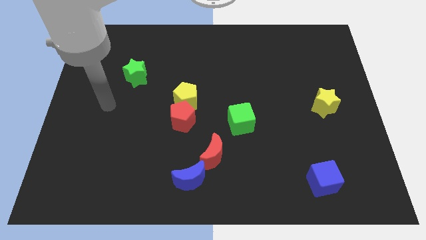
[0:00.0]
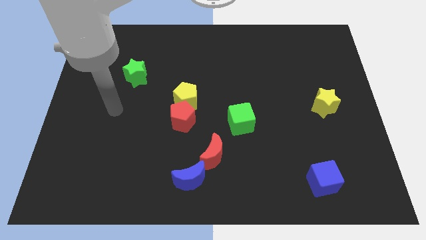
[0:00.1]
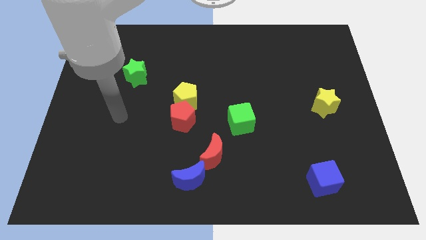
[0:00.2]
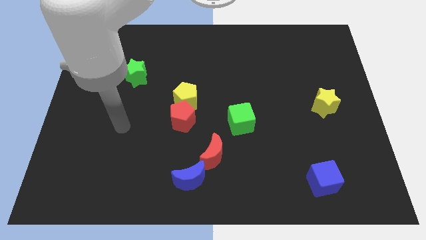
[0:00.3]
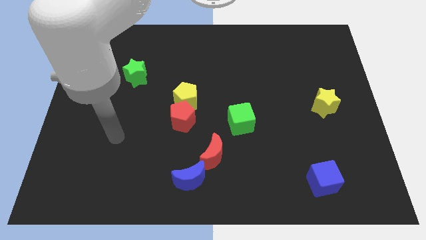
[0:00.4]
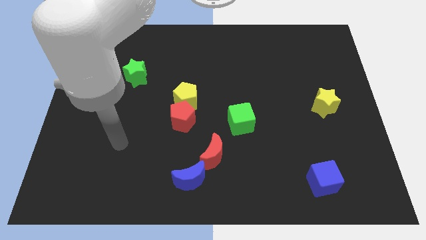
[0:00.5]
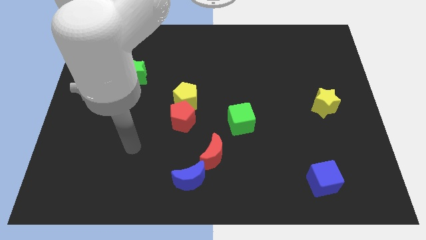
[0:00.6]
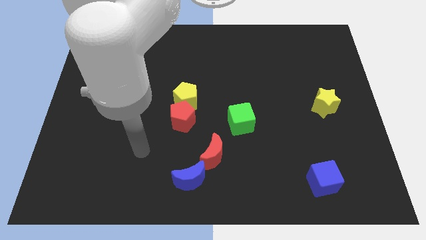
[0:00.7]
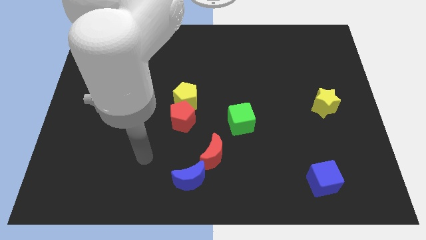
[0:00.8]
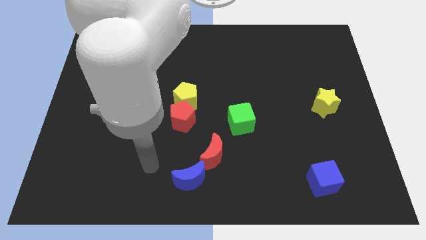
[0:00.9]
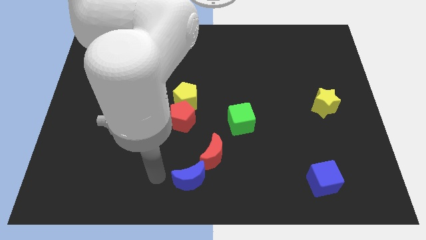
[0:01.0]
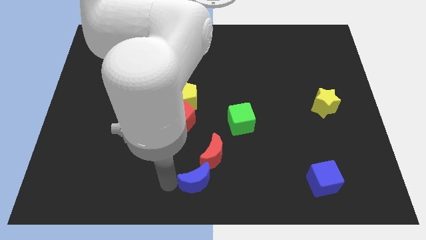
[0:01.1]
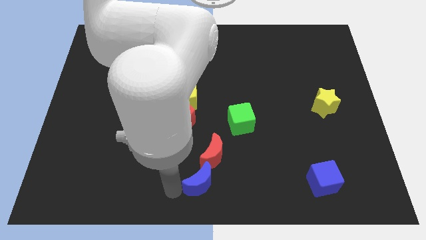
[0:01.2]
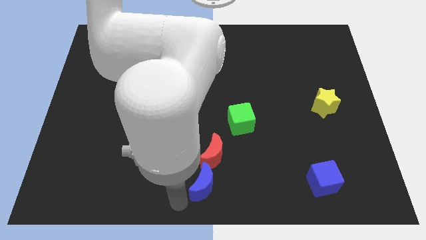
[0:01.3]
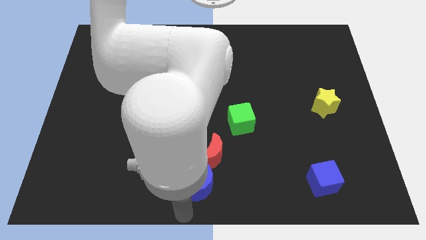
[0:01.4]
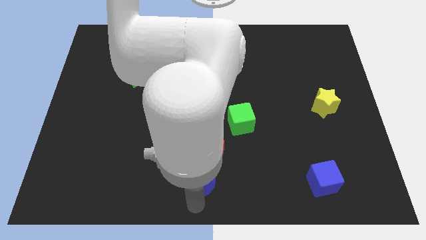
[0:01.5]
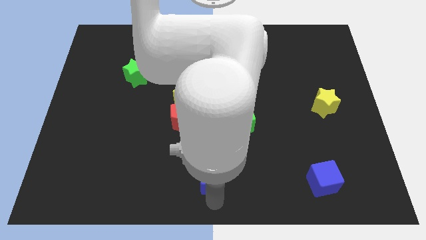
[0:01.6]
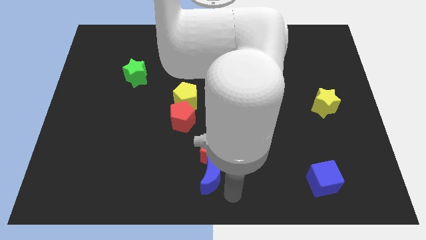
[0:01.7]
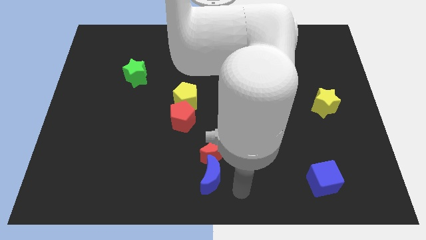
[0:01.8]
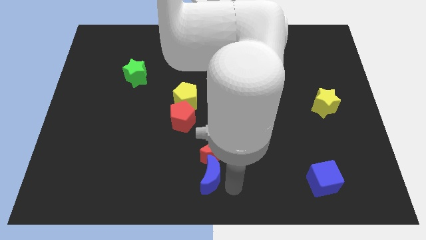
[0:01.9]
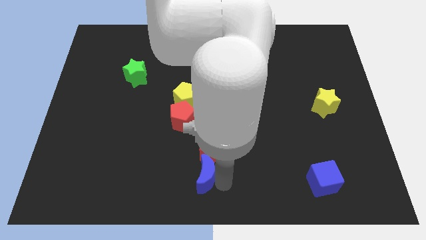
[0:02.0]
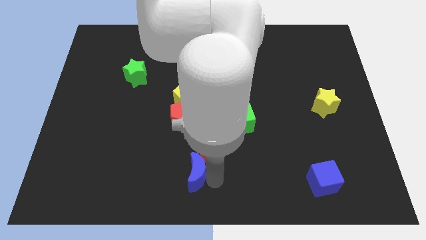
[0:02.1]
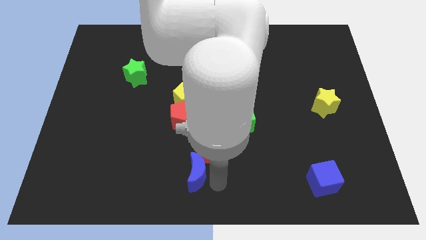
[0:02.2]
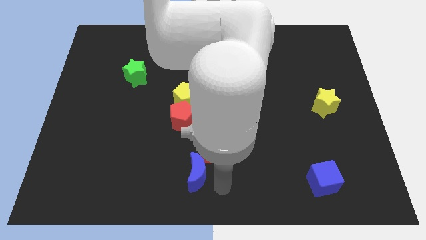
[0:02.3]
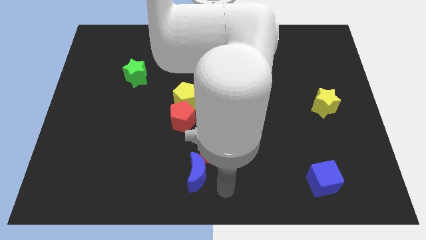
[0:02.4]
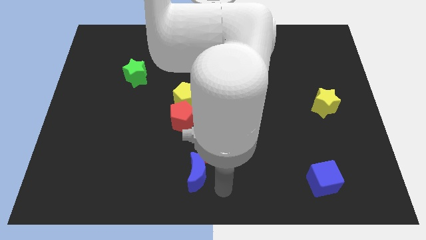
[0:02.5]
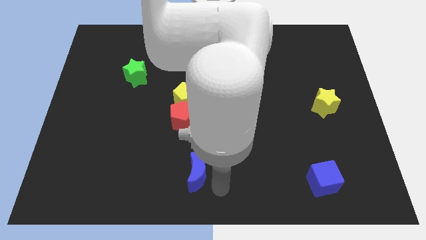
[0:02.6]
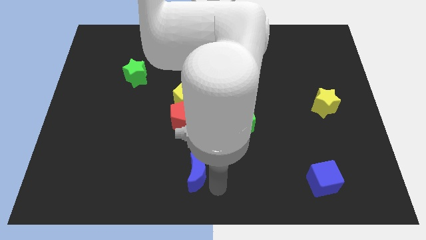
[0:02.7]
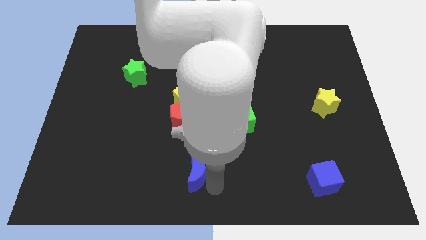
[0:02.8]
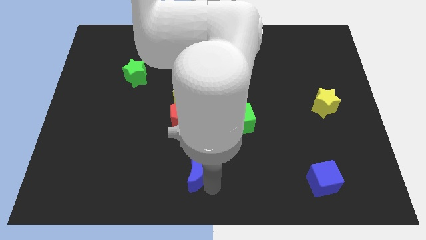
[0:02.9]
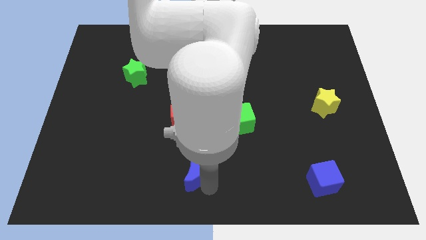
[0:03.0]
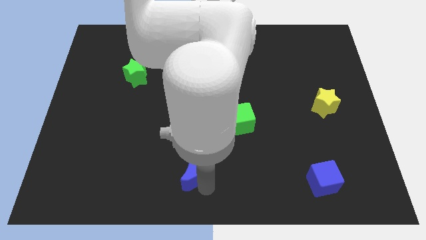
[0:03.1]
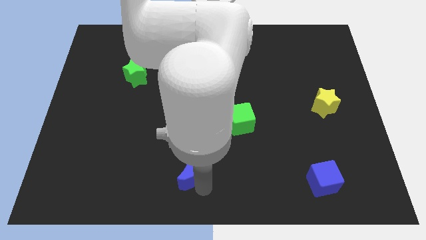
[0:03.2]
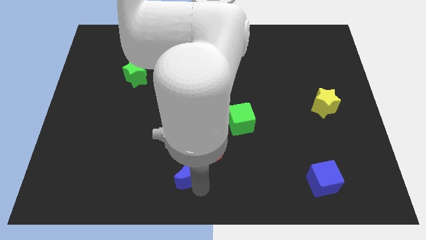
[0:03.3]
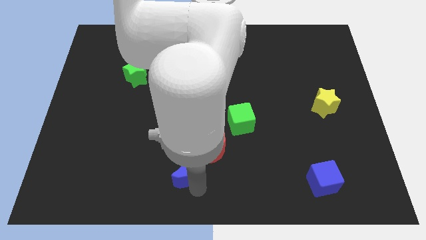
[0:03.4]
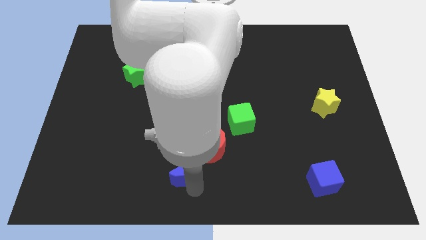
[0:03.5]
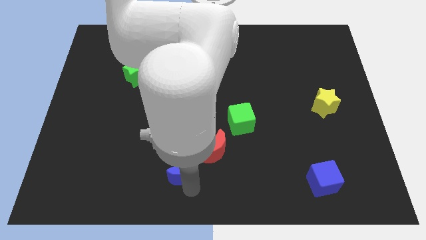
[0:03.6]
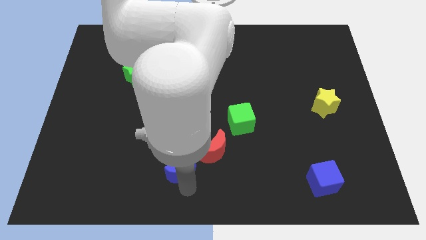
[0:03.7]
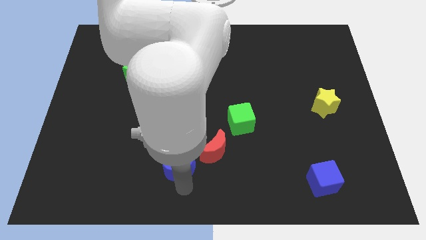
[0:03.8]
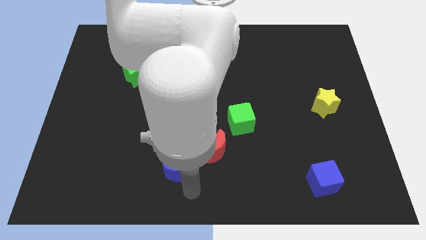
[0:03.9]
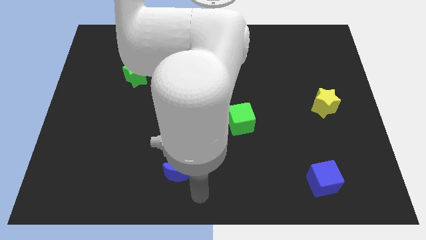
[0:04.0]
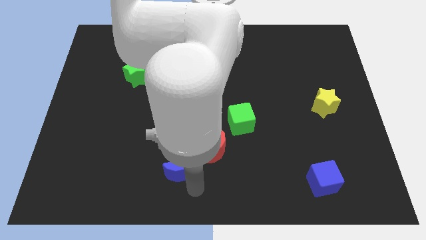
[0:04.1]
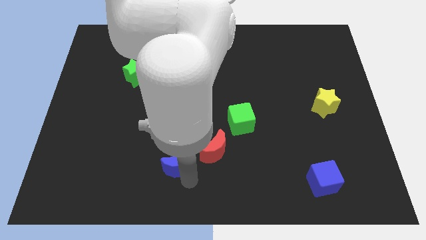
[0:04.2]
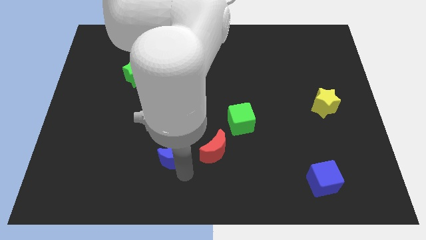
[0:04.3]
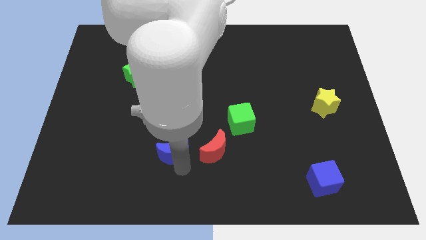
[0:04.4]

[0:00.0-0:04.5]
push the blue moon upwards and to the left diagonally somewhat

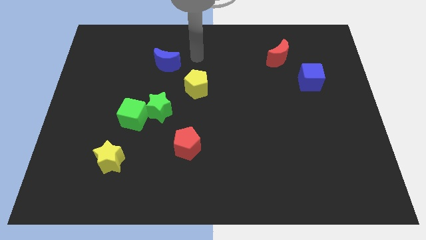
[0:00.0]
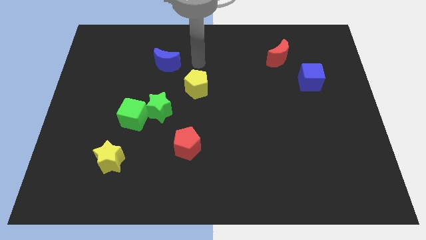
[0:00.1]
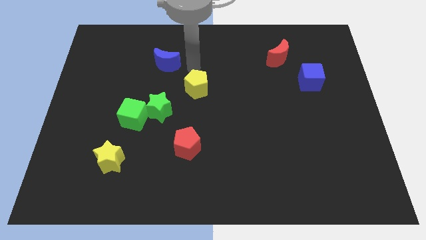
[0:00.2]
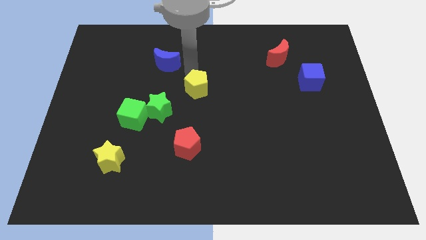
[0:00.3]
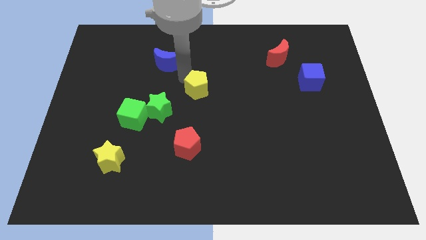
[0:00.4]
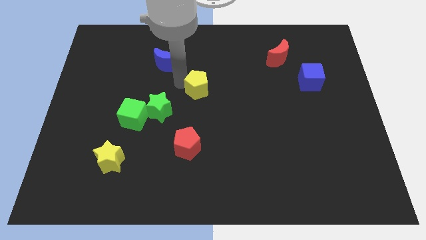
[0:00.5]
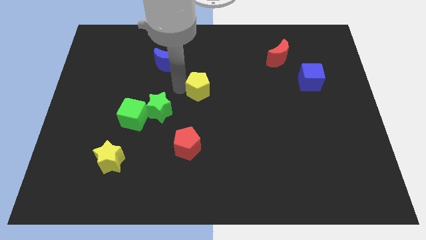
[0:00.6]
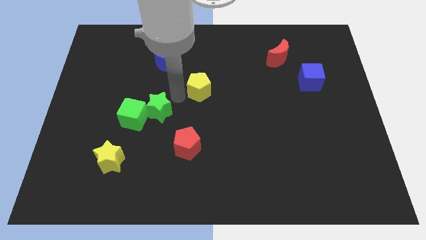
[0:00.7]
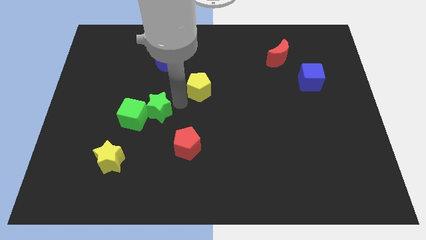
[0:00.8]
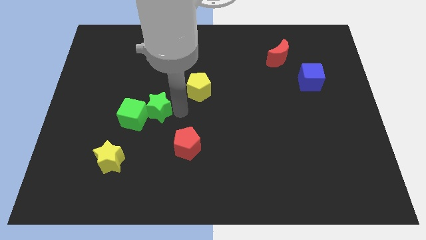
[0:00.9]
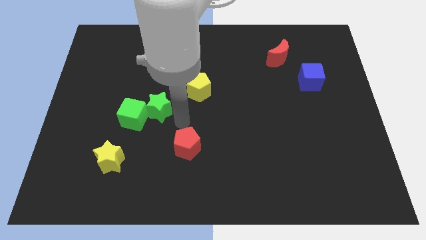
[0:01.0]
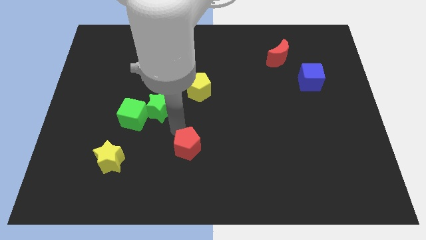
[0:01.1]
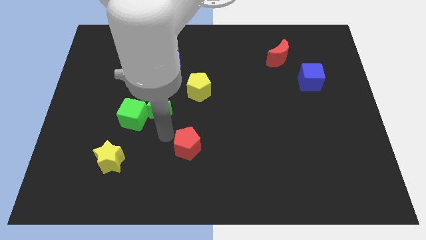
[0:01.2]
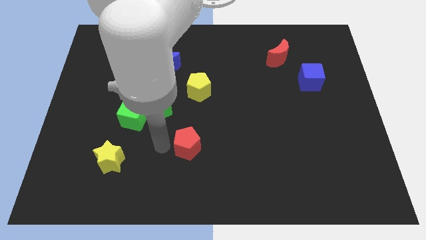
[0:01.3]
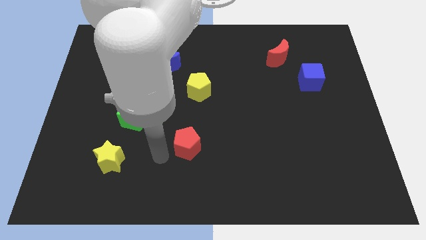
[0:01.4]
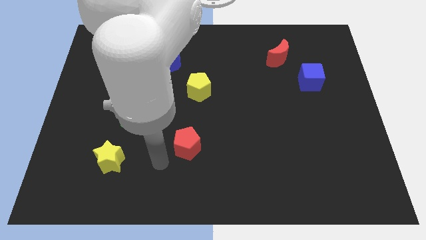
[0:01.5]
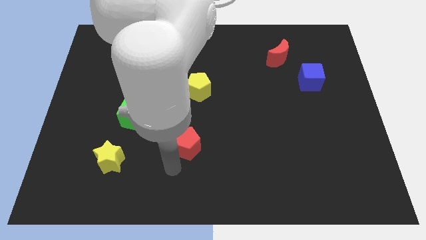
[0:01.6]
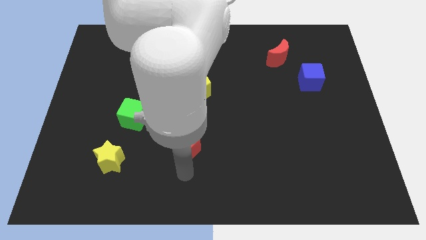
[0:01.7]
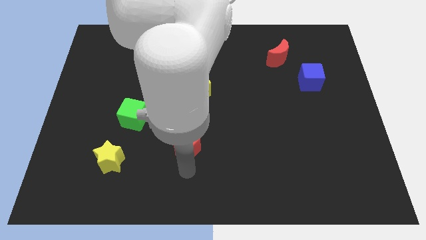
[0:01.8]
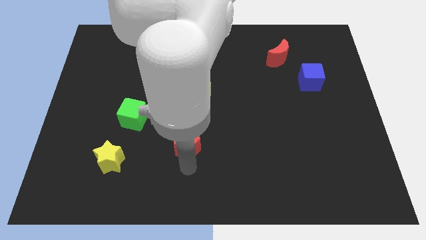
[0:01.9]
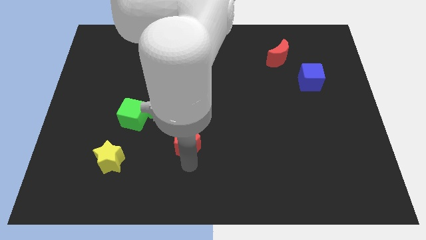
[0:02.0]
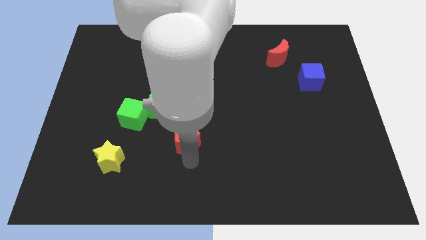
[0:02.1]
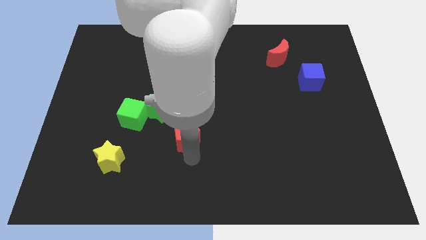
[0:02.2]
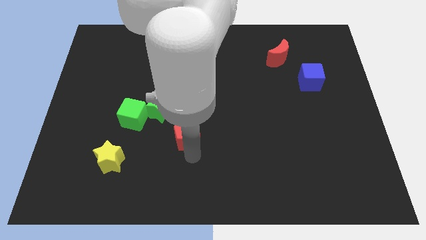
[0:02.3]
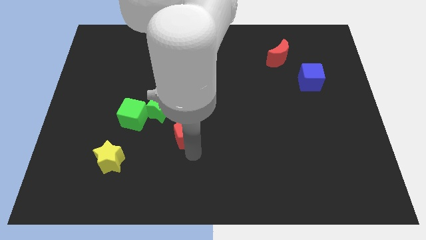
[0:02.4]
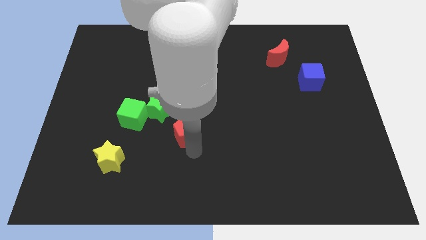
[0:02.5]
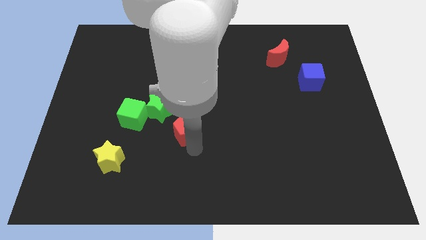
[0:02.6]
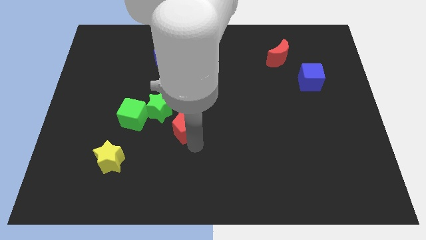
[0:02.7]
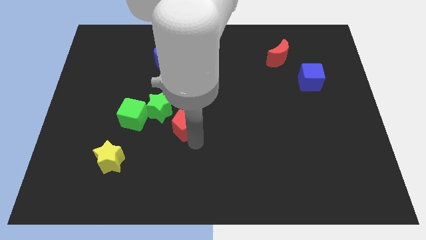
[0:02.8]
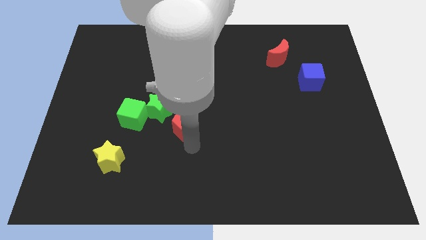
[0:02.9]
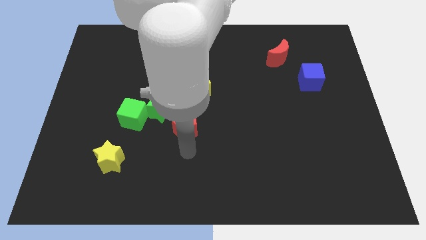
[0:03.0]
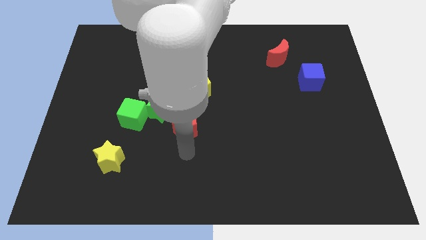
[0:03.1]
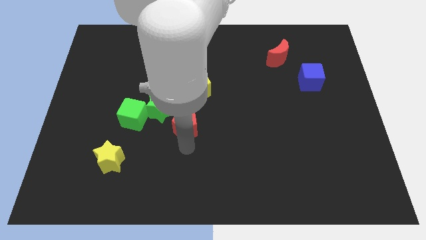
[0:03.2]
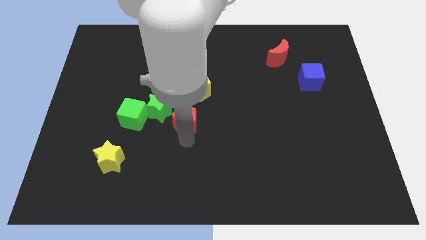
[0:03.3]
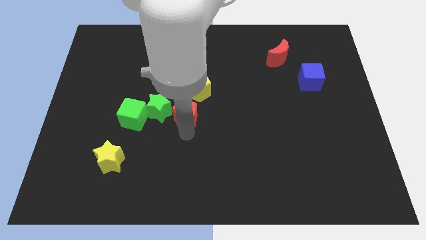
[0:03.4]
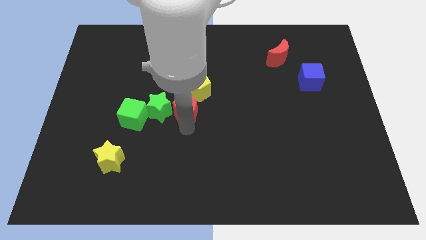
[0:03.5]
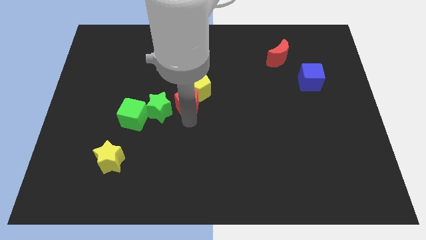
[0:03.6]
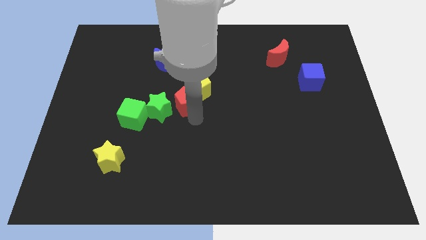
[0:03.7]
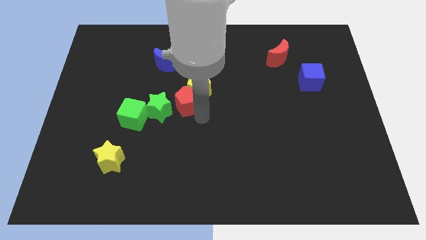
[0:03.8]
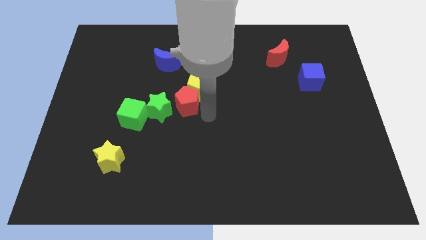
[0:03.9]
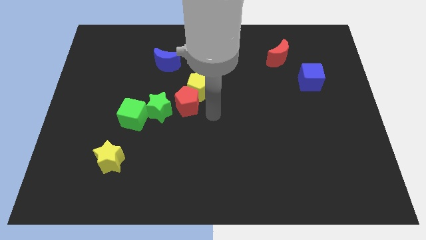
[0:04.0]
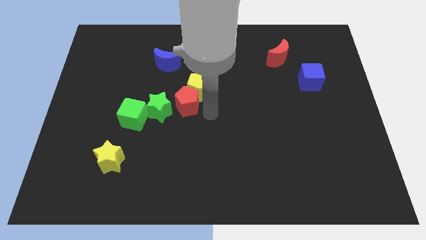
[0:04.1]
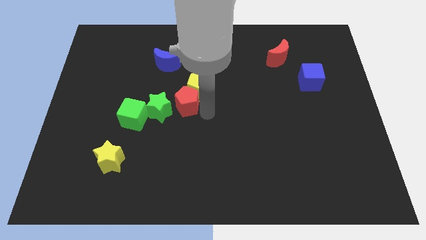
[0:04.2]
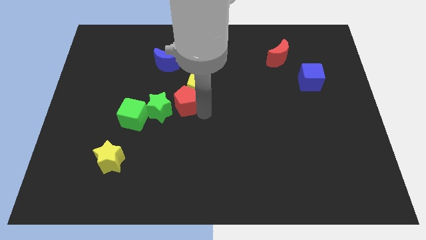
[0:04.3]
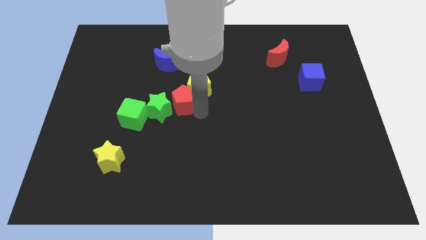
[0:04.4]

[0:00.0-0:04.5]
slightly move the red pentagon upwards and then left
